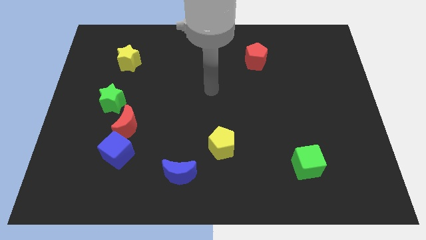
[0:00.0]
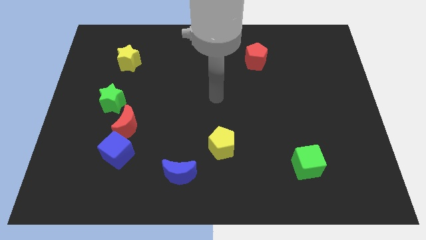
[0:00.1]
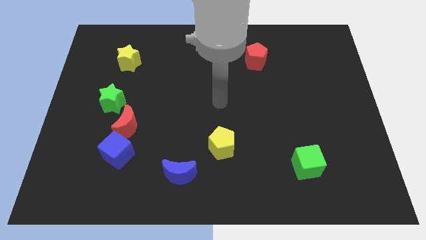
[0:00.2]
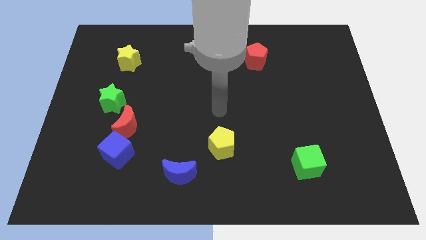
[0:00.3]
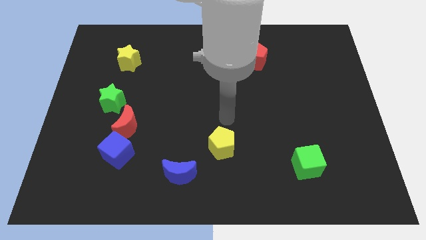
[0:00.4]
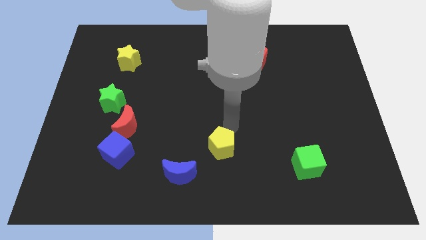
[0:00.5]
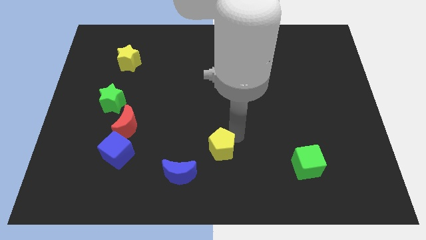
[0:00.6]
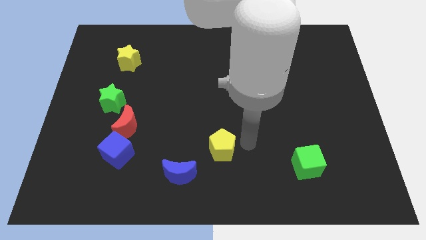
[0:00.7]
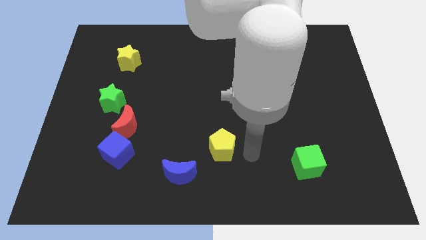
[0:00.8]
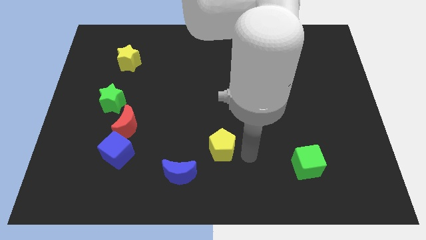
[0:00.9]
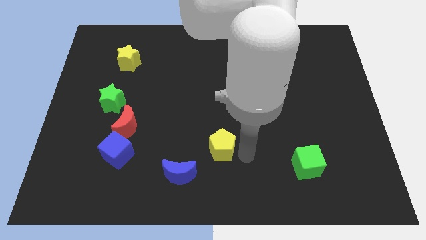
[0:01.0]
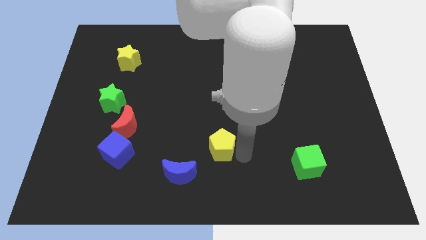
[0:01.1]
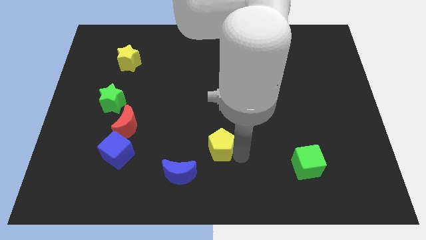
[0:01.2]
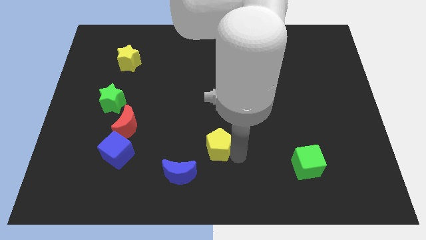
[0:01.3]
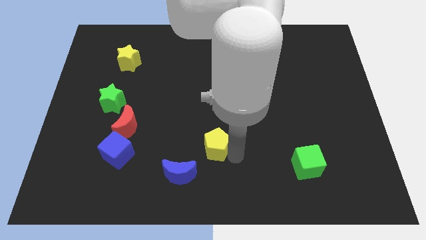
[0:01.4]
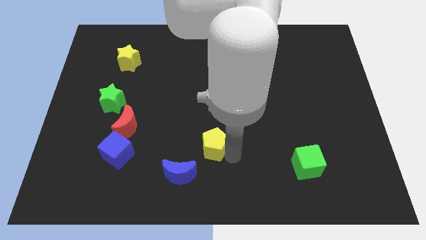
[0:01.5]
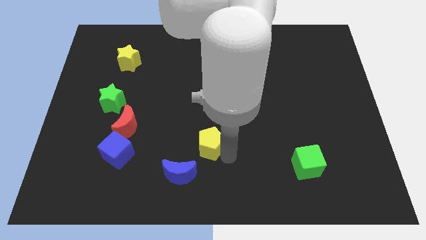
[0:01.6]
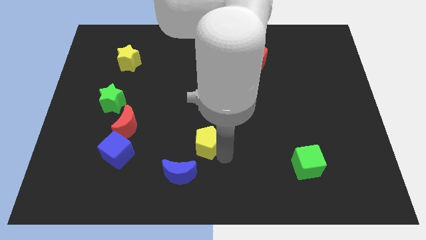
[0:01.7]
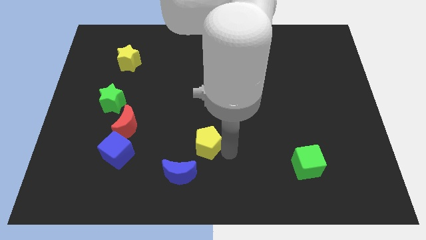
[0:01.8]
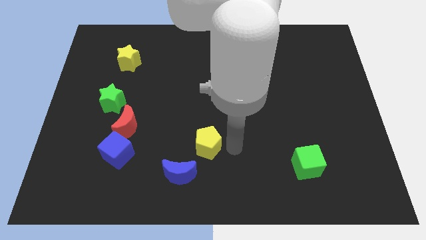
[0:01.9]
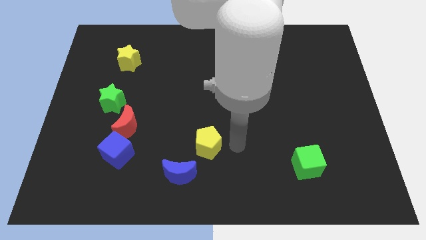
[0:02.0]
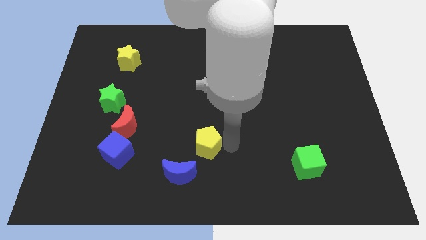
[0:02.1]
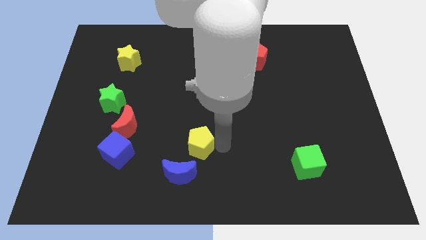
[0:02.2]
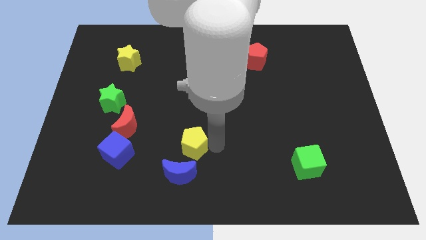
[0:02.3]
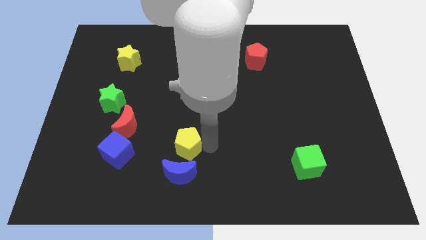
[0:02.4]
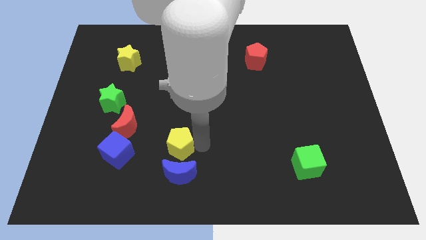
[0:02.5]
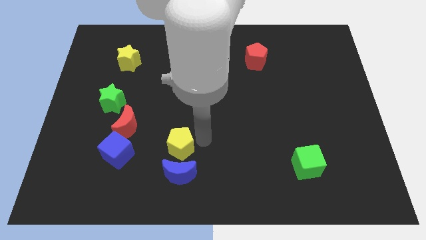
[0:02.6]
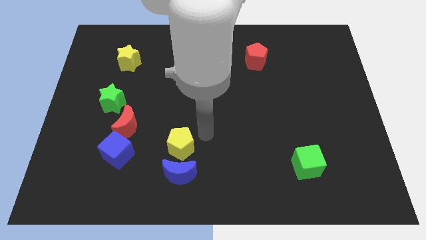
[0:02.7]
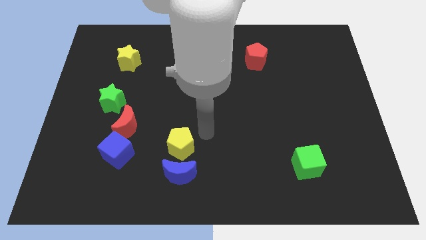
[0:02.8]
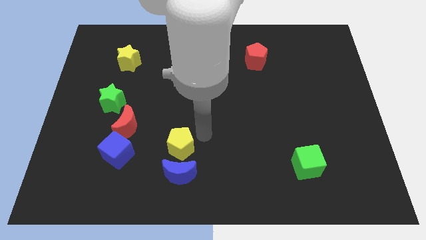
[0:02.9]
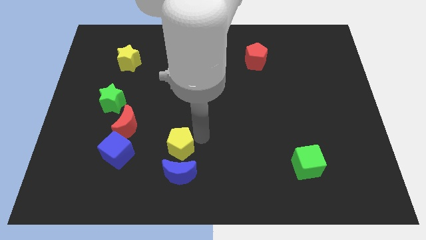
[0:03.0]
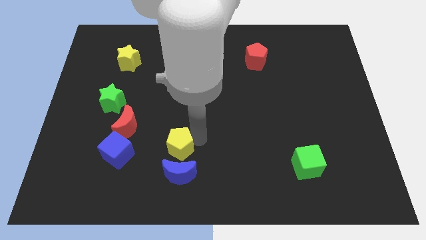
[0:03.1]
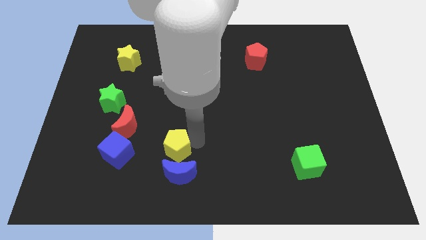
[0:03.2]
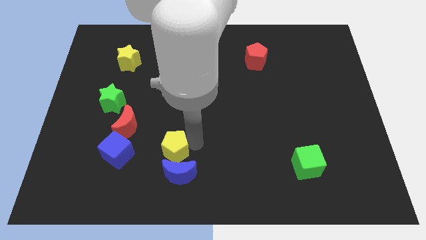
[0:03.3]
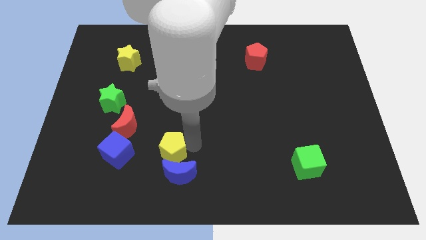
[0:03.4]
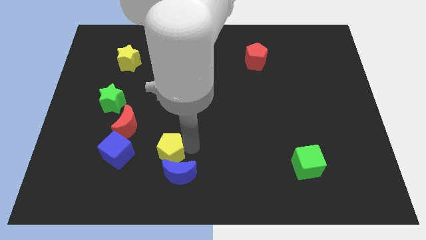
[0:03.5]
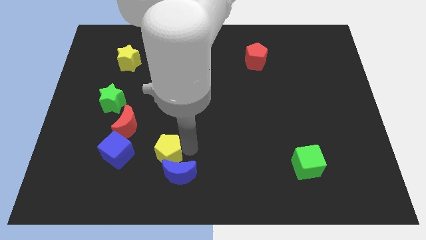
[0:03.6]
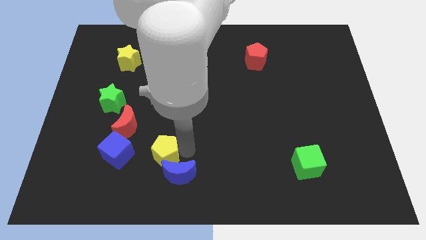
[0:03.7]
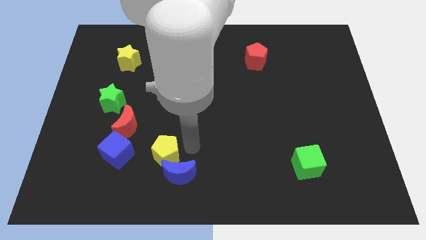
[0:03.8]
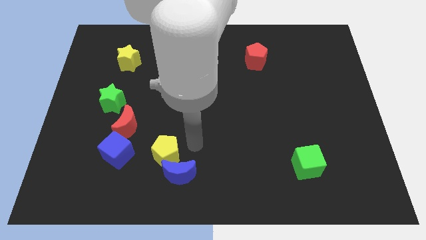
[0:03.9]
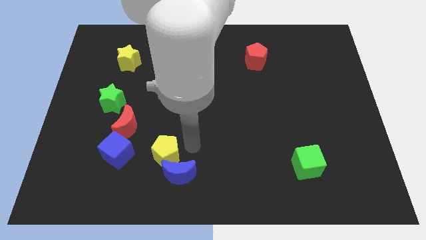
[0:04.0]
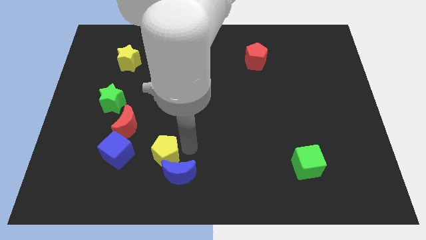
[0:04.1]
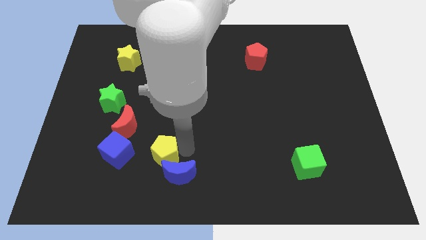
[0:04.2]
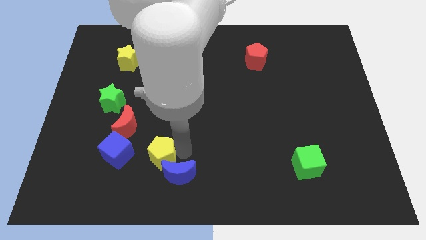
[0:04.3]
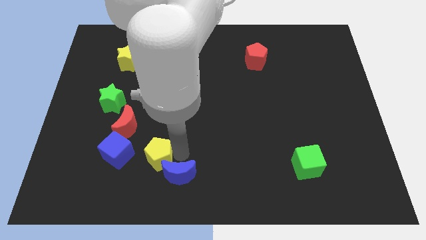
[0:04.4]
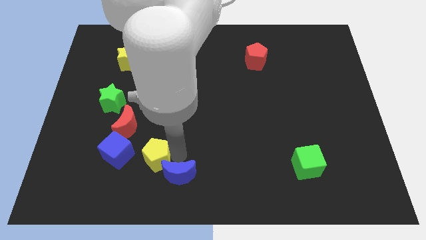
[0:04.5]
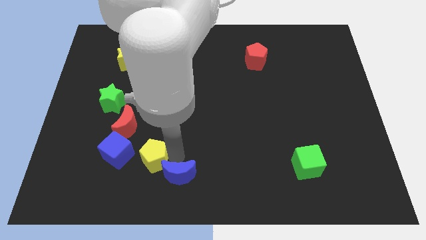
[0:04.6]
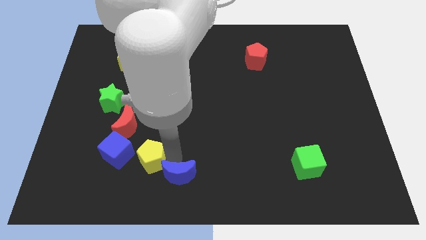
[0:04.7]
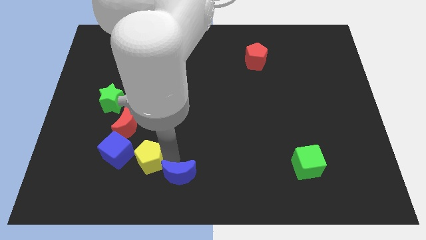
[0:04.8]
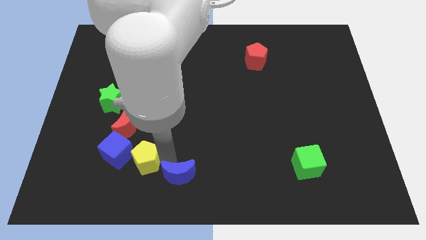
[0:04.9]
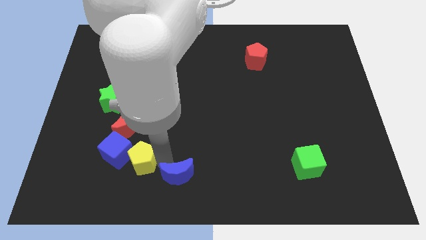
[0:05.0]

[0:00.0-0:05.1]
move the yellow pentagon to the bottom of the red moon

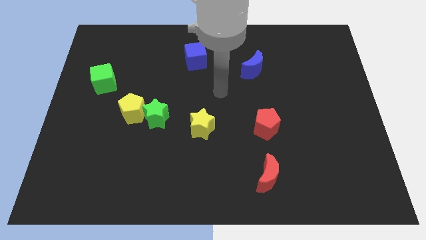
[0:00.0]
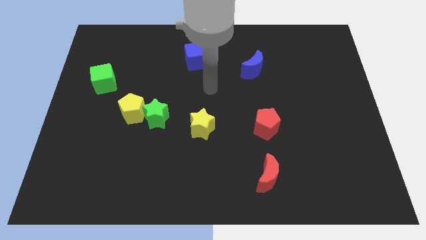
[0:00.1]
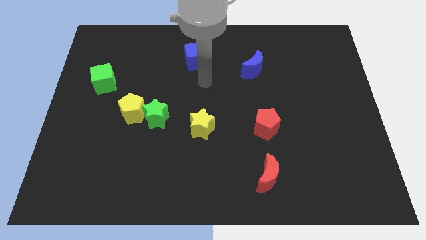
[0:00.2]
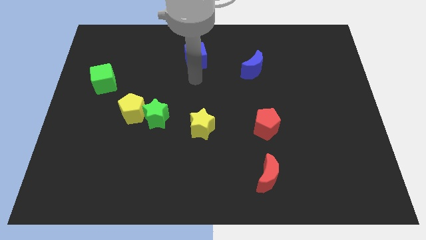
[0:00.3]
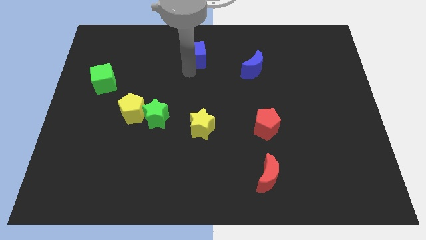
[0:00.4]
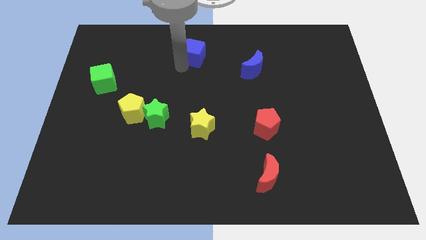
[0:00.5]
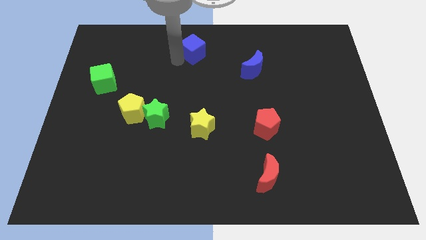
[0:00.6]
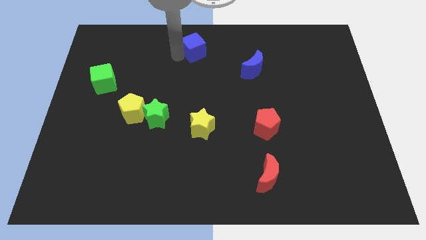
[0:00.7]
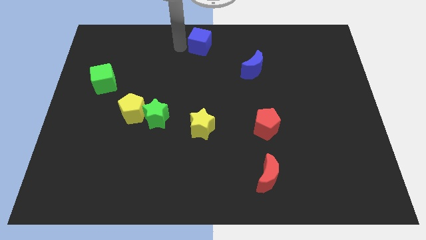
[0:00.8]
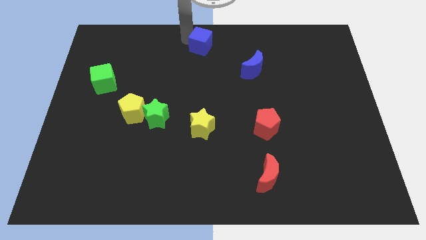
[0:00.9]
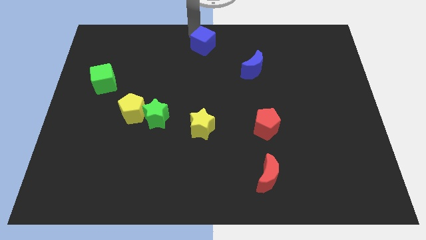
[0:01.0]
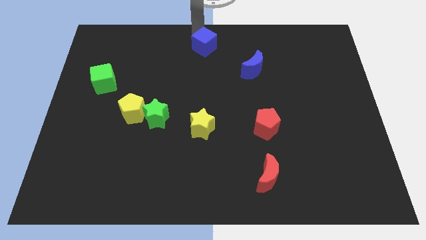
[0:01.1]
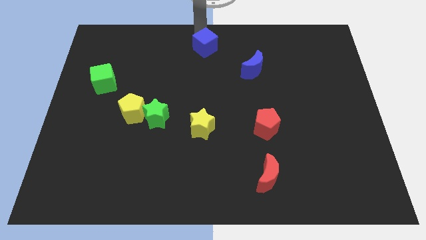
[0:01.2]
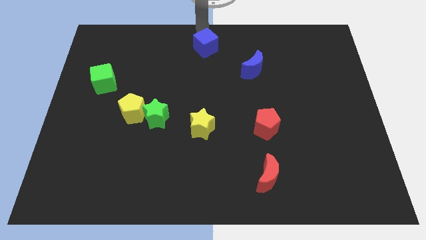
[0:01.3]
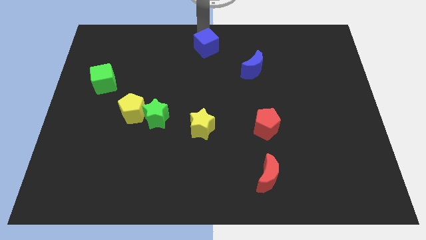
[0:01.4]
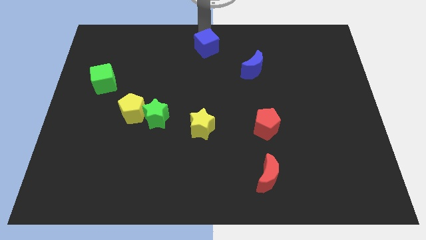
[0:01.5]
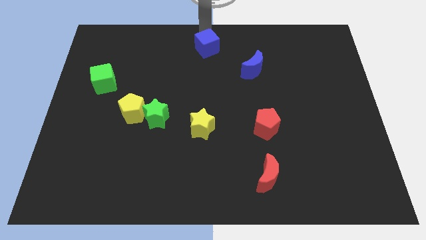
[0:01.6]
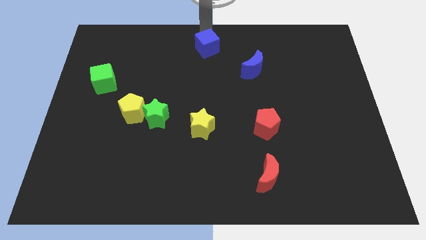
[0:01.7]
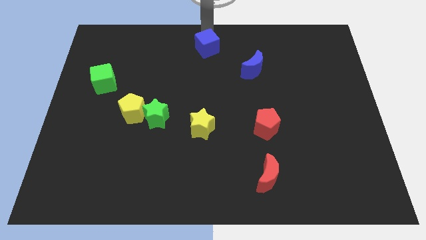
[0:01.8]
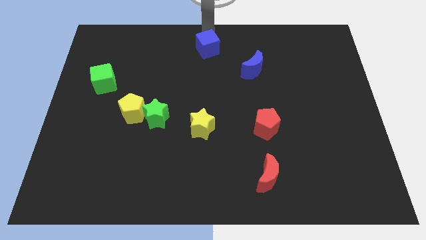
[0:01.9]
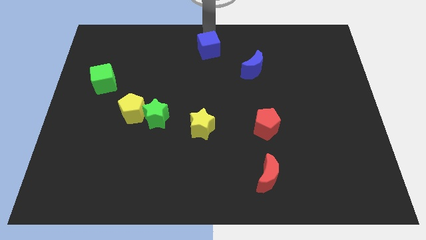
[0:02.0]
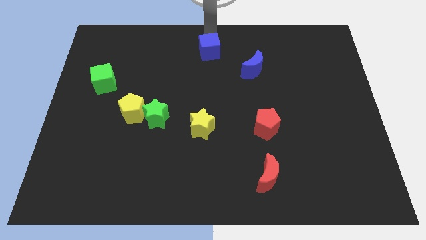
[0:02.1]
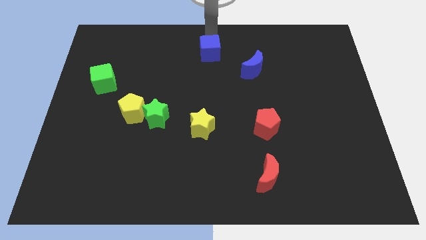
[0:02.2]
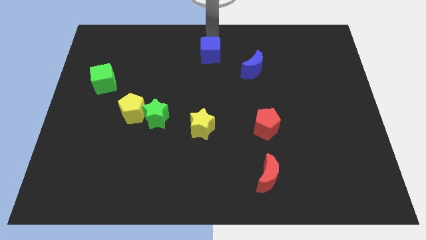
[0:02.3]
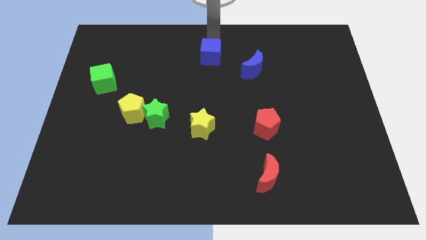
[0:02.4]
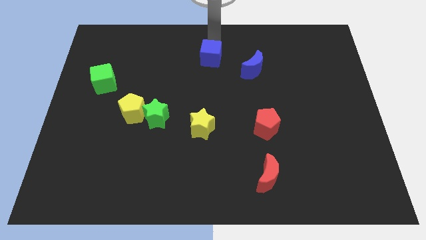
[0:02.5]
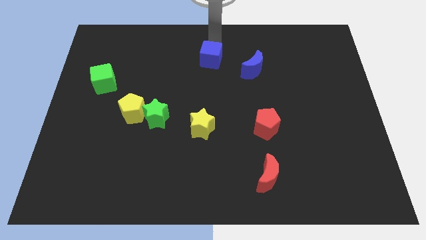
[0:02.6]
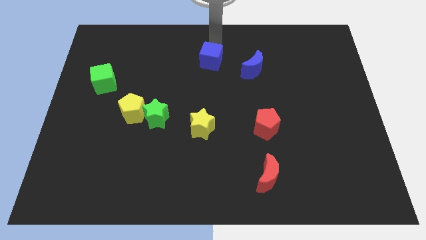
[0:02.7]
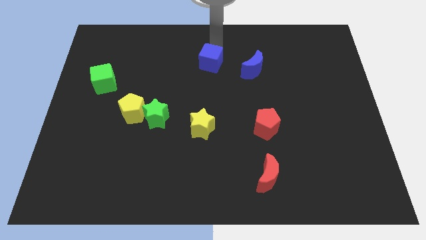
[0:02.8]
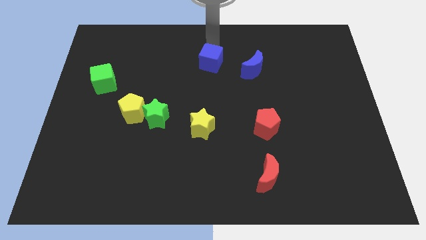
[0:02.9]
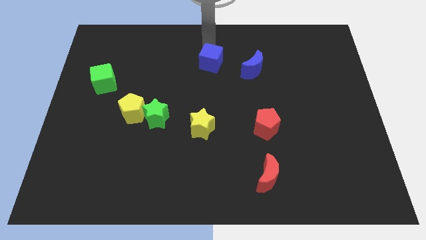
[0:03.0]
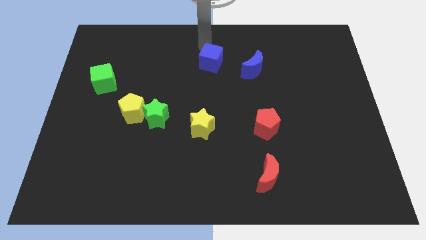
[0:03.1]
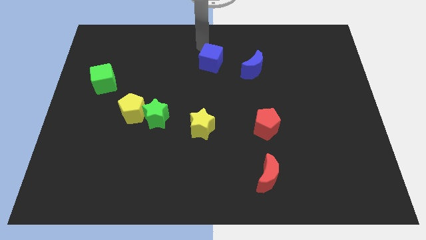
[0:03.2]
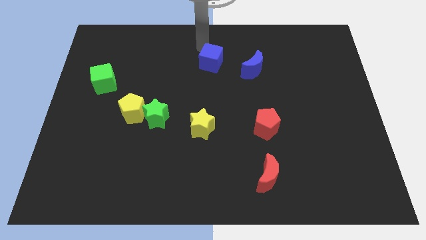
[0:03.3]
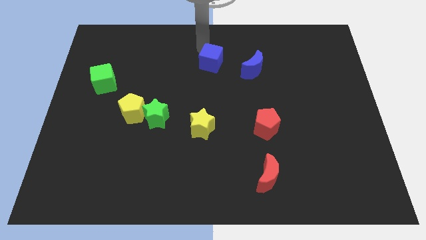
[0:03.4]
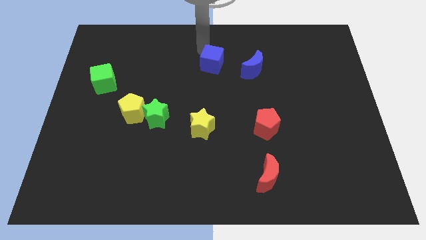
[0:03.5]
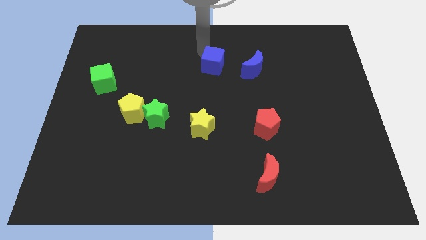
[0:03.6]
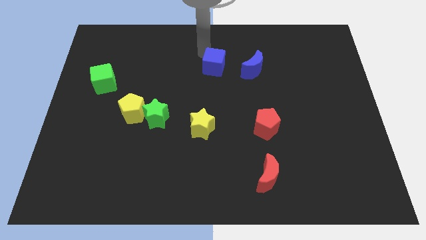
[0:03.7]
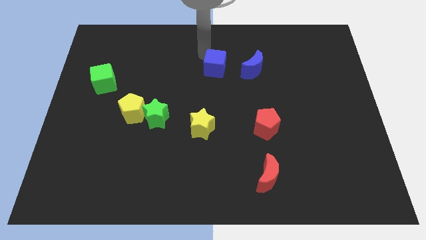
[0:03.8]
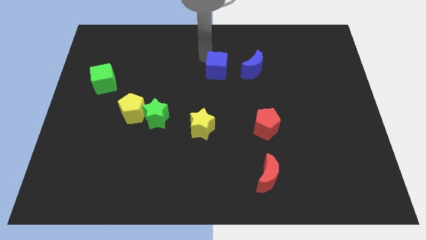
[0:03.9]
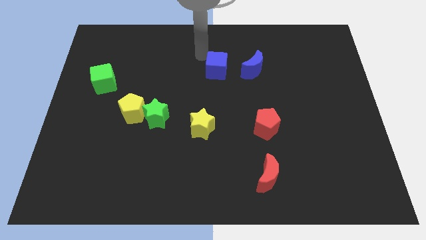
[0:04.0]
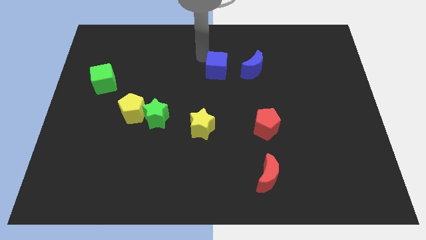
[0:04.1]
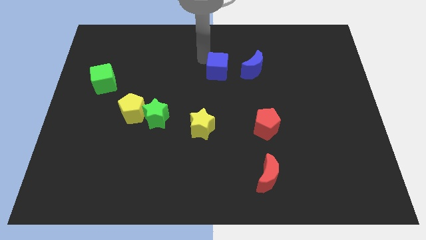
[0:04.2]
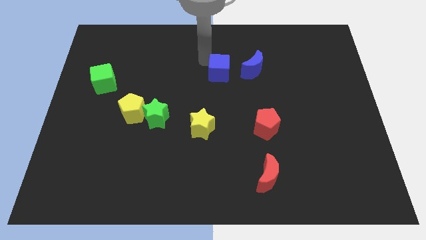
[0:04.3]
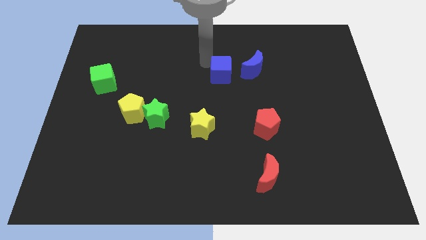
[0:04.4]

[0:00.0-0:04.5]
push the blue cube diagonally down and to the left of the blue moon
